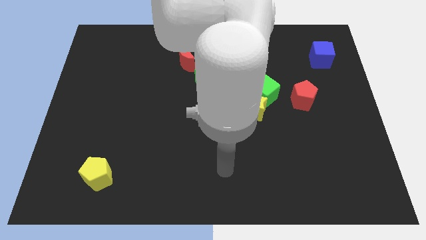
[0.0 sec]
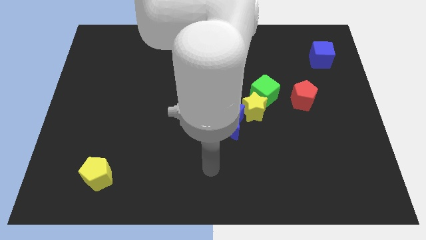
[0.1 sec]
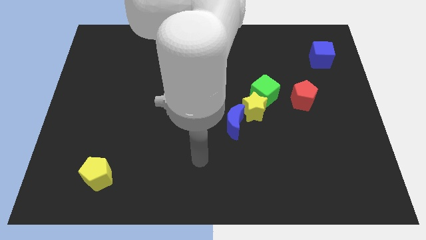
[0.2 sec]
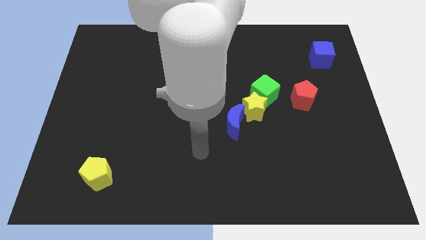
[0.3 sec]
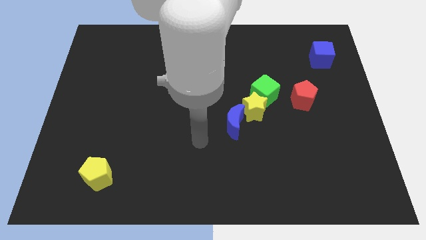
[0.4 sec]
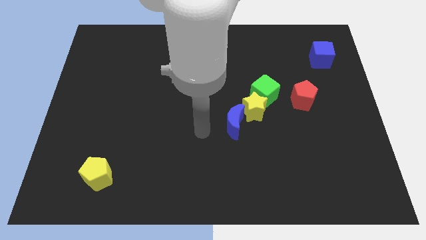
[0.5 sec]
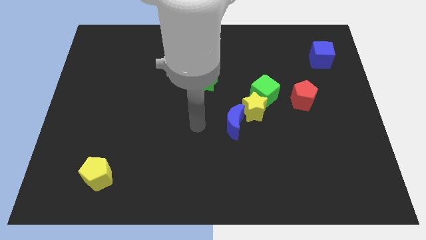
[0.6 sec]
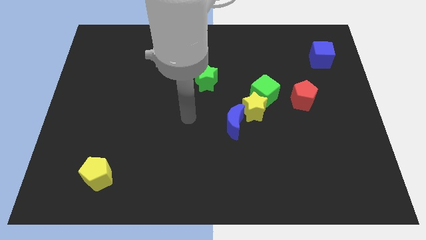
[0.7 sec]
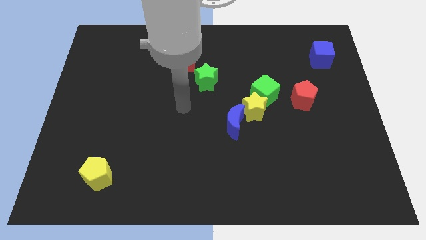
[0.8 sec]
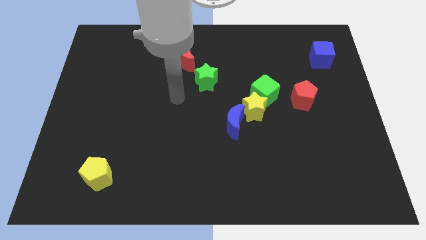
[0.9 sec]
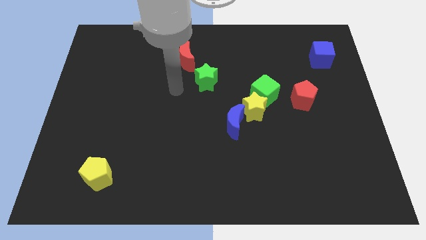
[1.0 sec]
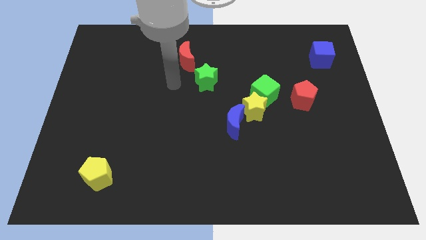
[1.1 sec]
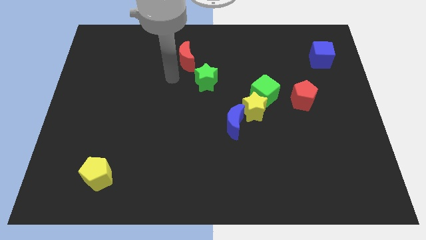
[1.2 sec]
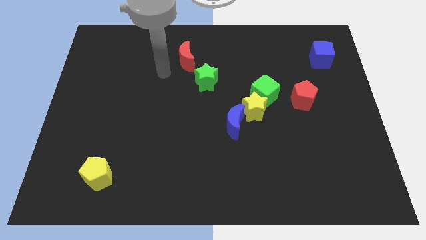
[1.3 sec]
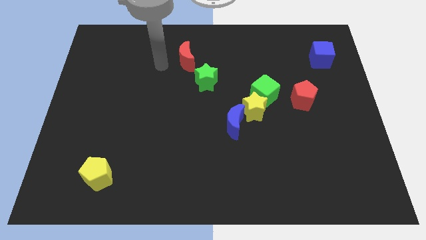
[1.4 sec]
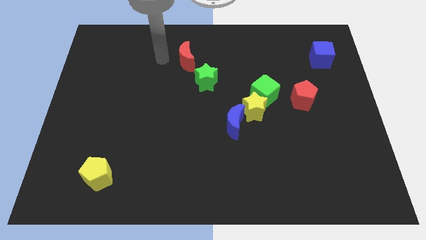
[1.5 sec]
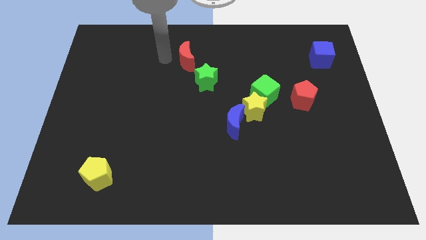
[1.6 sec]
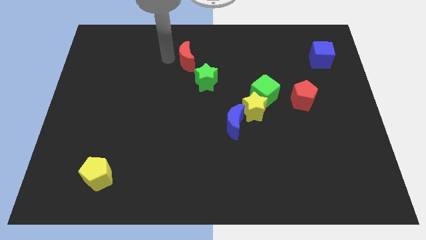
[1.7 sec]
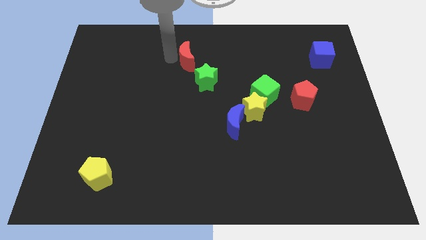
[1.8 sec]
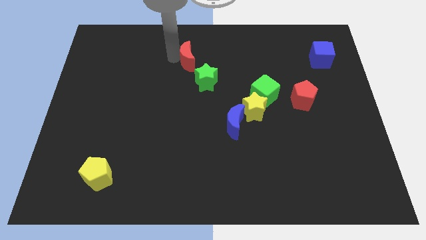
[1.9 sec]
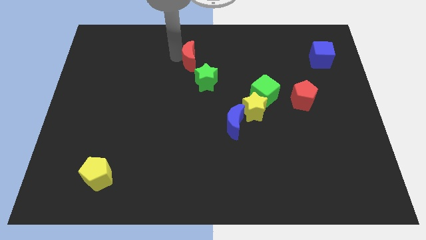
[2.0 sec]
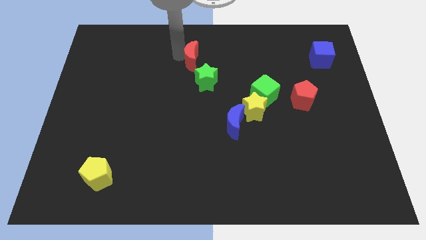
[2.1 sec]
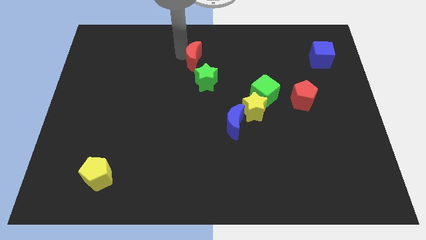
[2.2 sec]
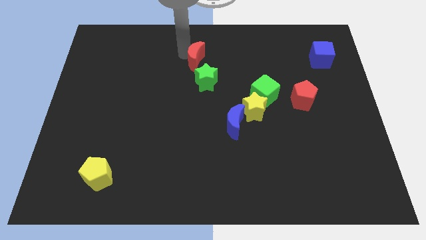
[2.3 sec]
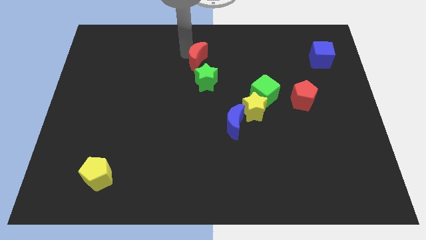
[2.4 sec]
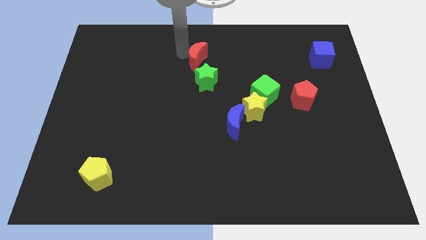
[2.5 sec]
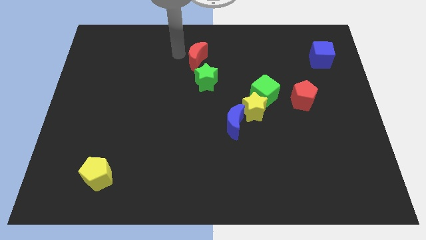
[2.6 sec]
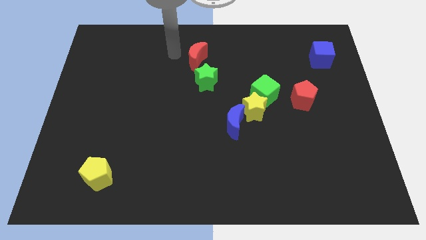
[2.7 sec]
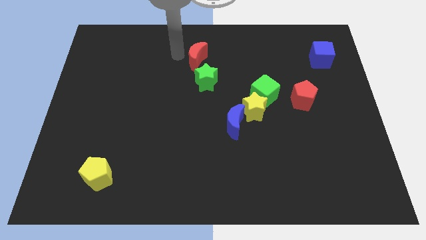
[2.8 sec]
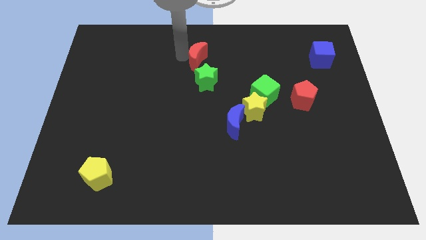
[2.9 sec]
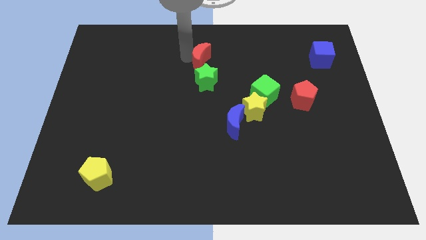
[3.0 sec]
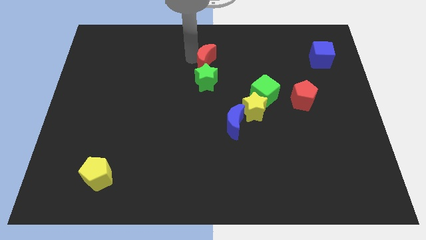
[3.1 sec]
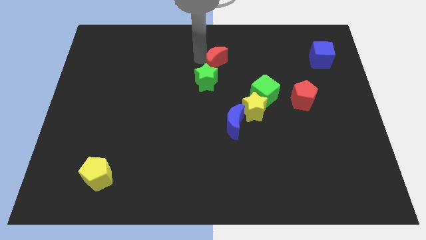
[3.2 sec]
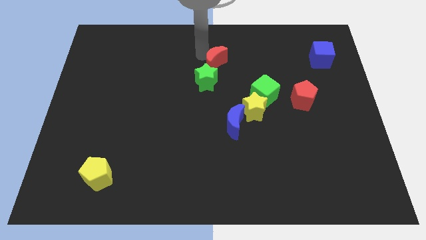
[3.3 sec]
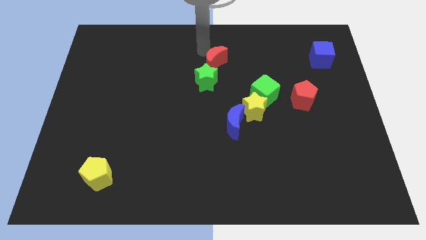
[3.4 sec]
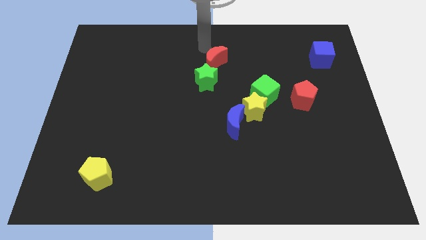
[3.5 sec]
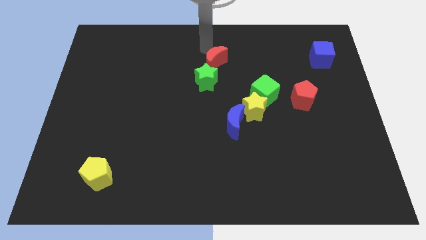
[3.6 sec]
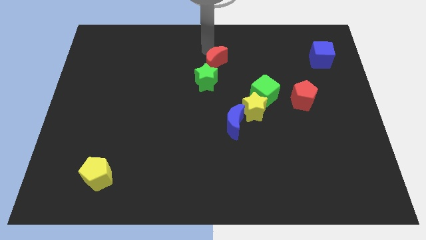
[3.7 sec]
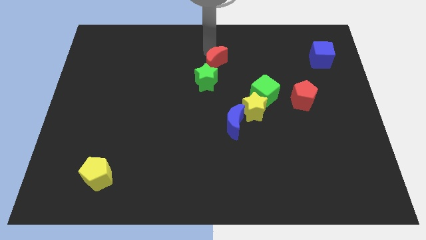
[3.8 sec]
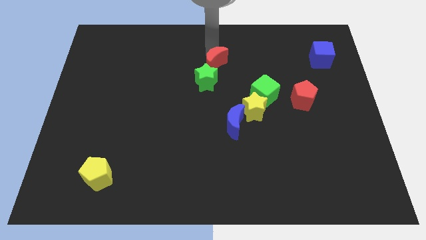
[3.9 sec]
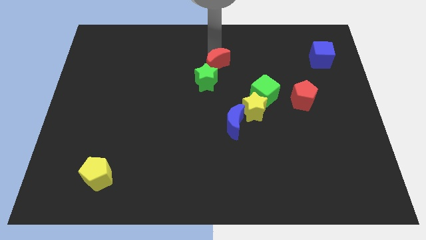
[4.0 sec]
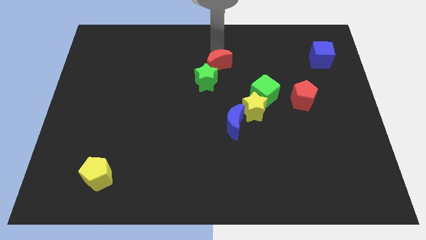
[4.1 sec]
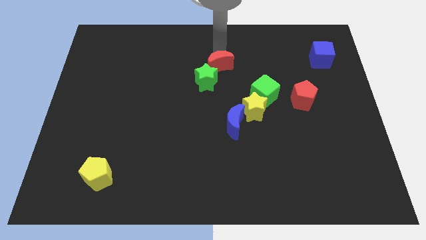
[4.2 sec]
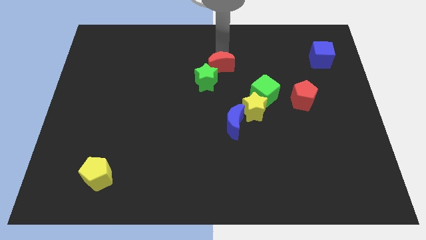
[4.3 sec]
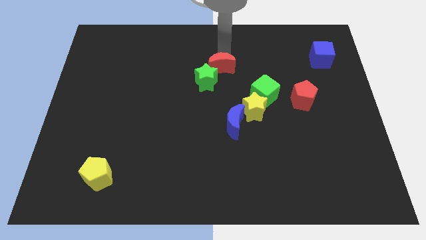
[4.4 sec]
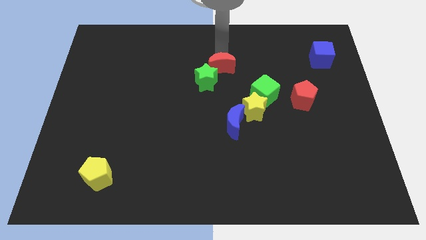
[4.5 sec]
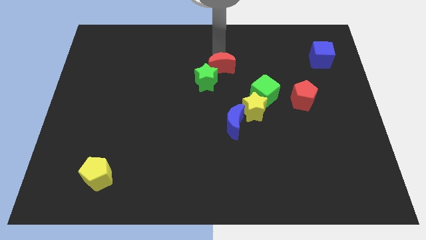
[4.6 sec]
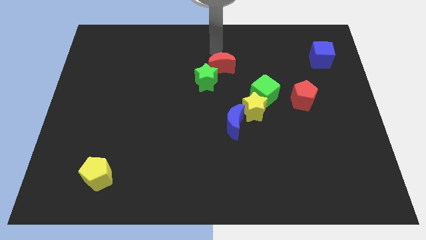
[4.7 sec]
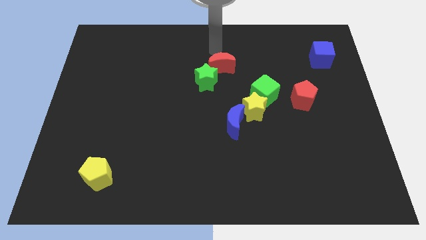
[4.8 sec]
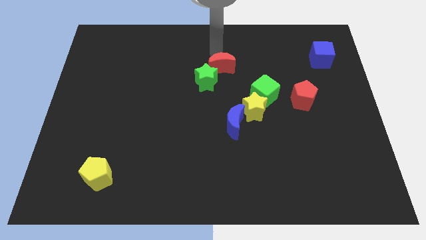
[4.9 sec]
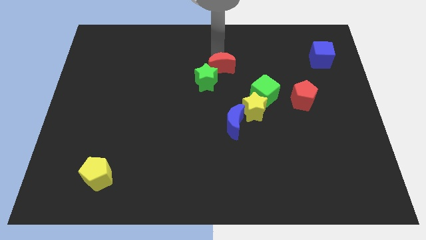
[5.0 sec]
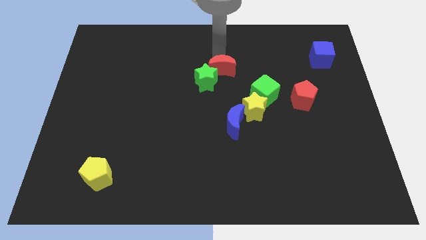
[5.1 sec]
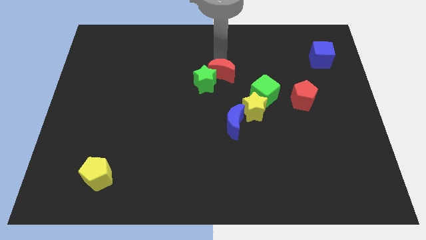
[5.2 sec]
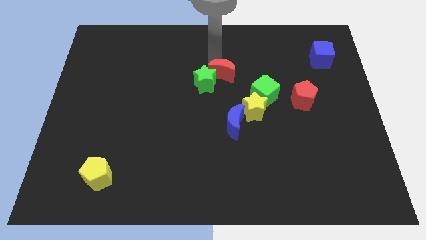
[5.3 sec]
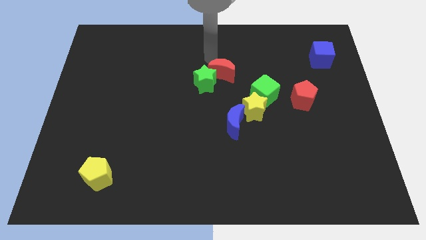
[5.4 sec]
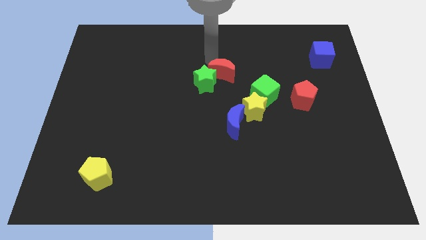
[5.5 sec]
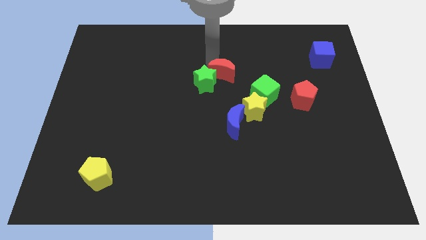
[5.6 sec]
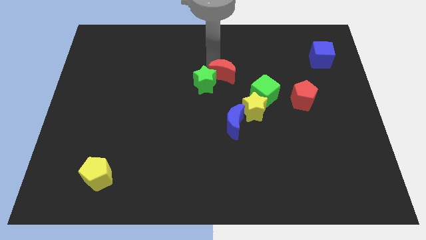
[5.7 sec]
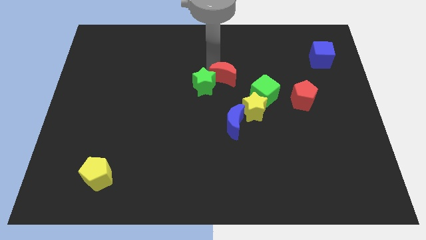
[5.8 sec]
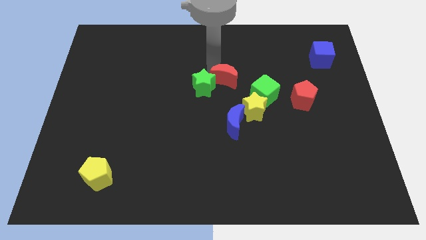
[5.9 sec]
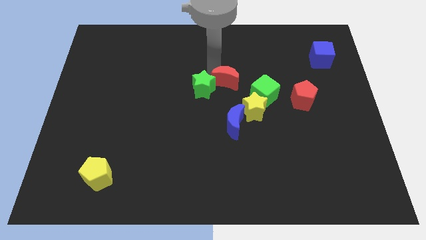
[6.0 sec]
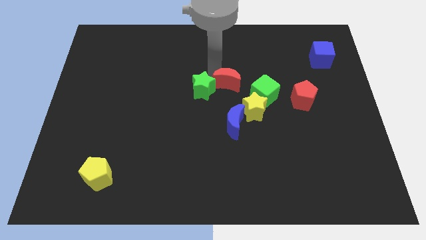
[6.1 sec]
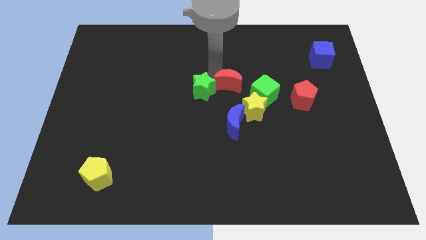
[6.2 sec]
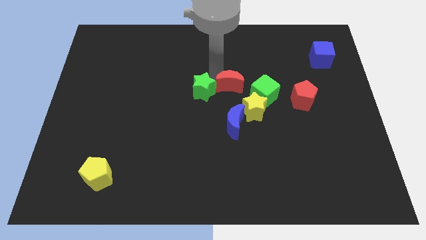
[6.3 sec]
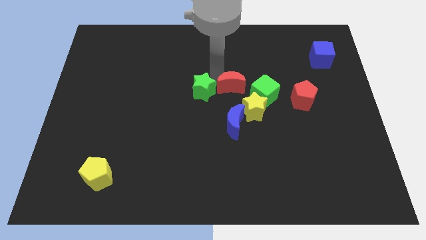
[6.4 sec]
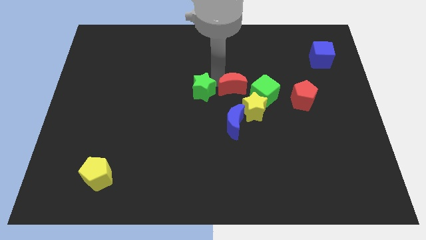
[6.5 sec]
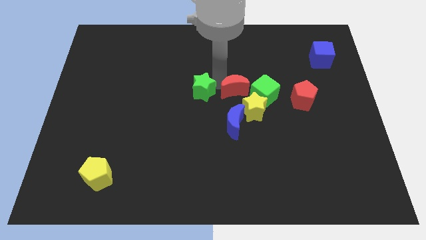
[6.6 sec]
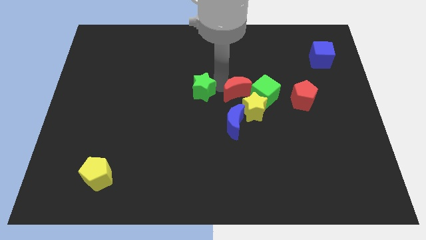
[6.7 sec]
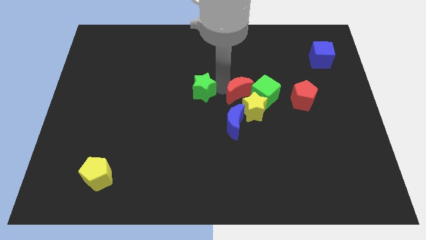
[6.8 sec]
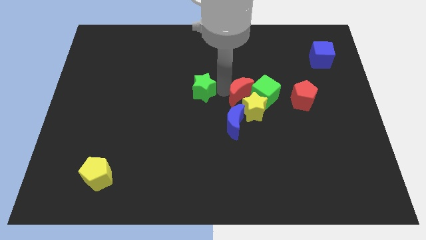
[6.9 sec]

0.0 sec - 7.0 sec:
move the red moon close to the yellow star

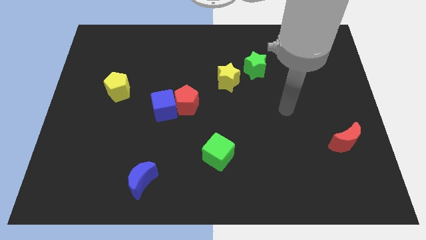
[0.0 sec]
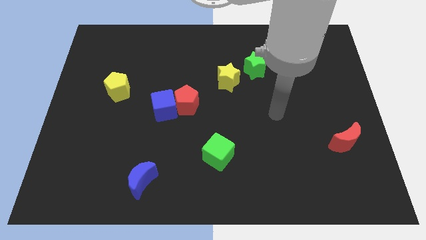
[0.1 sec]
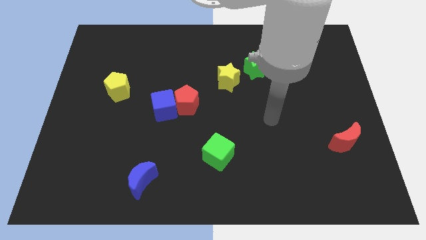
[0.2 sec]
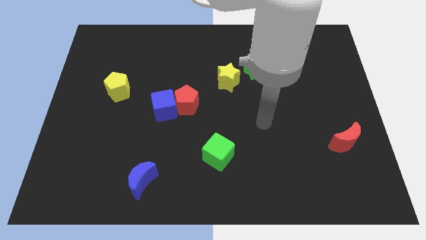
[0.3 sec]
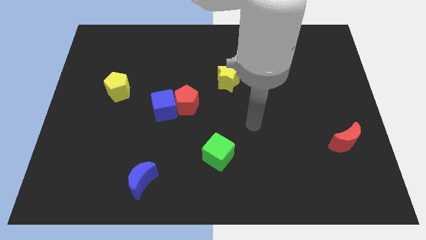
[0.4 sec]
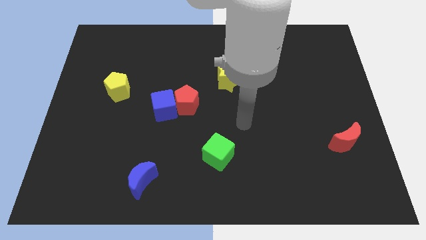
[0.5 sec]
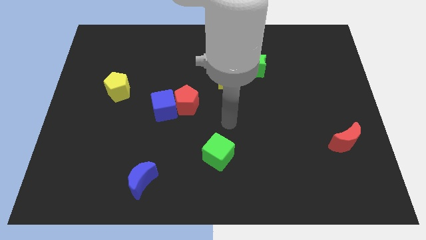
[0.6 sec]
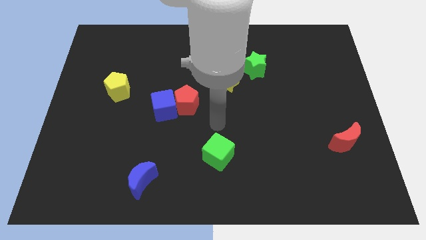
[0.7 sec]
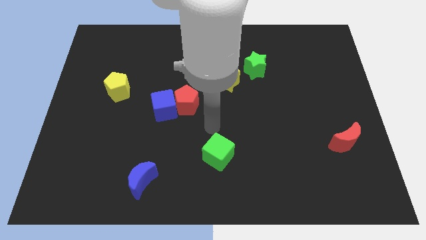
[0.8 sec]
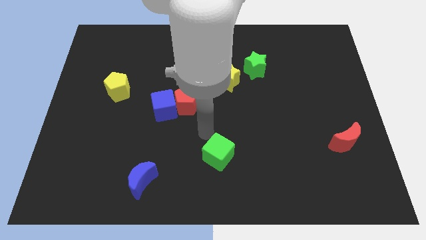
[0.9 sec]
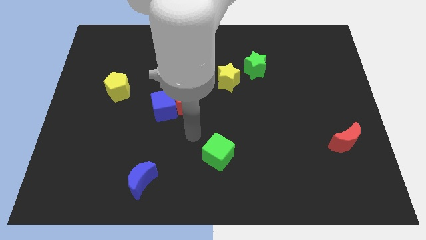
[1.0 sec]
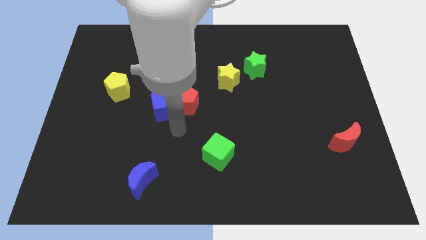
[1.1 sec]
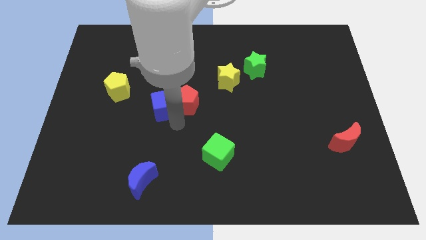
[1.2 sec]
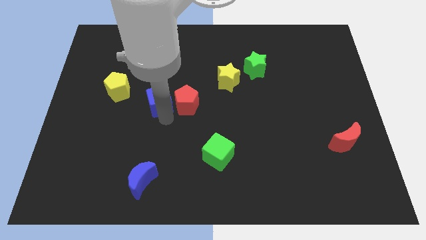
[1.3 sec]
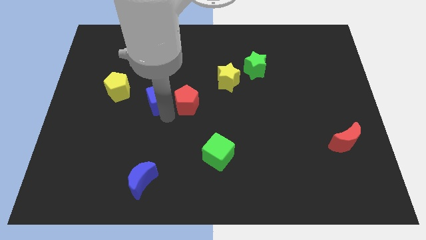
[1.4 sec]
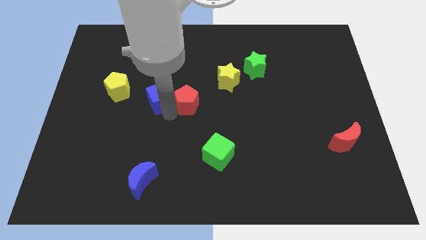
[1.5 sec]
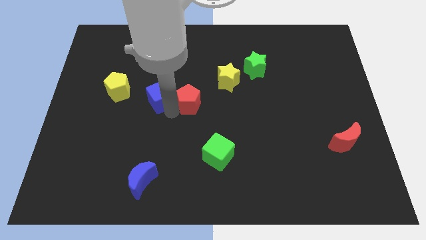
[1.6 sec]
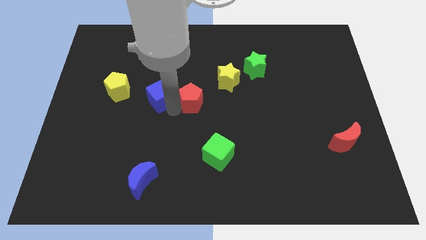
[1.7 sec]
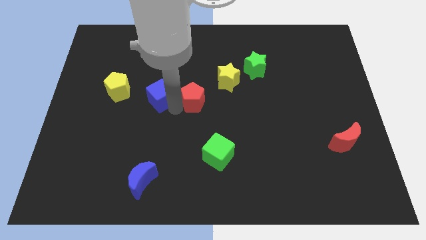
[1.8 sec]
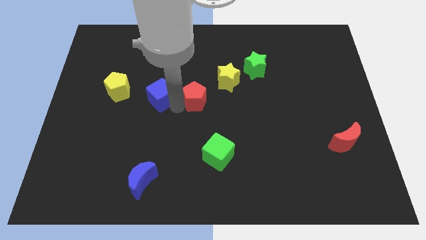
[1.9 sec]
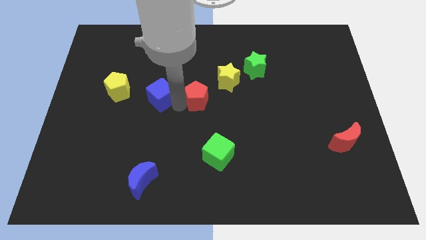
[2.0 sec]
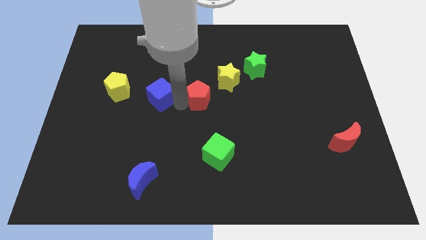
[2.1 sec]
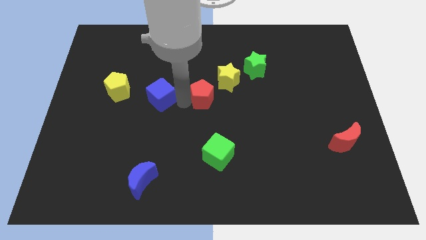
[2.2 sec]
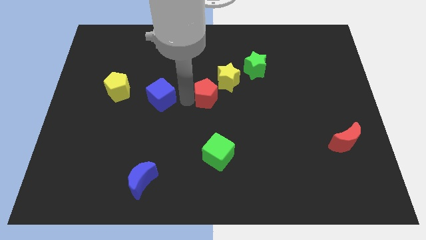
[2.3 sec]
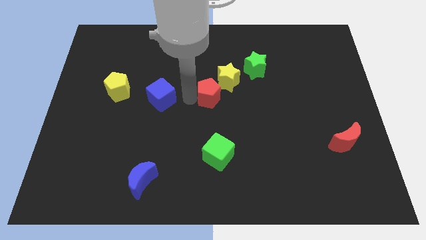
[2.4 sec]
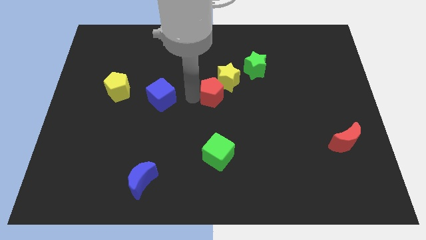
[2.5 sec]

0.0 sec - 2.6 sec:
slide the red pentagon next to the yellow star
